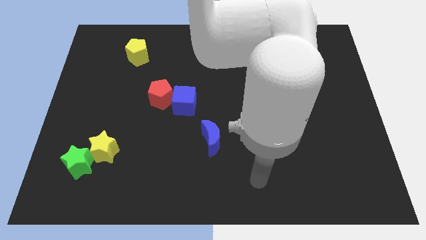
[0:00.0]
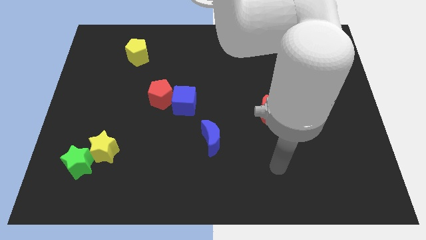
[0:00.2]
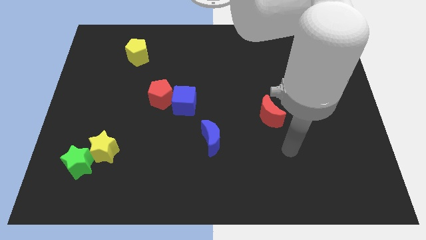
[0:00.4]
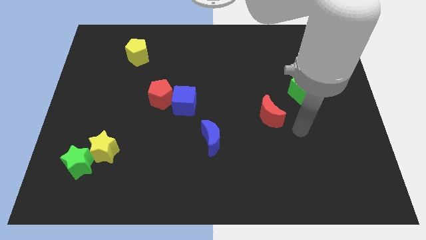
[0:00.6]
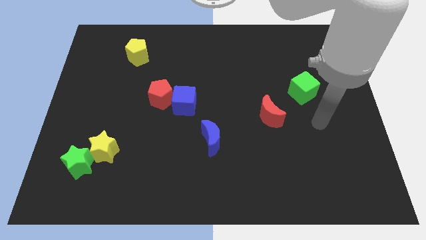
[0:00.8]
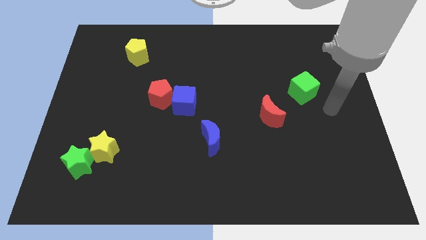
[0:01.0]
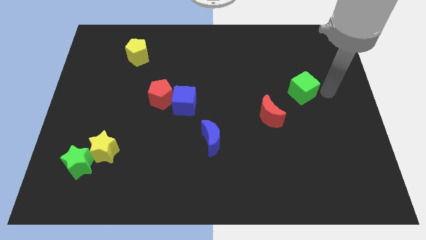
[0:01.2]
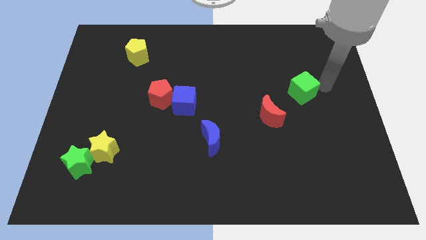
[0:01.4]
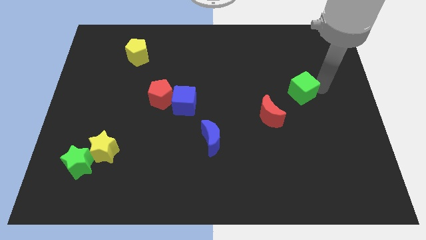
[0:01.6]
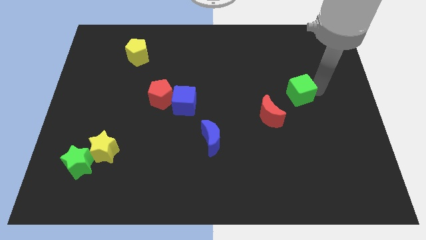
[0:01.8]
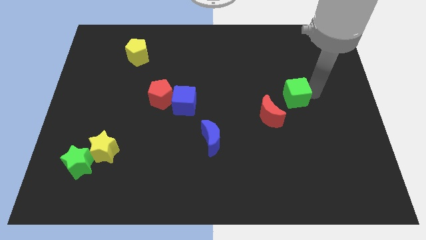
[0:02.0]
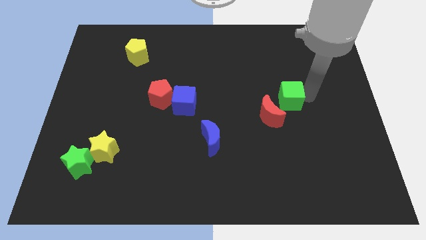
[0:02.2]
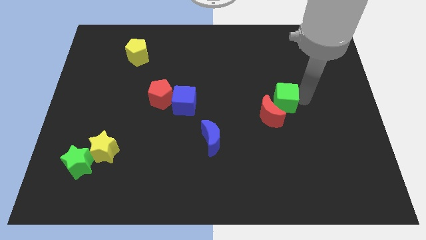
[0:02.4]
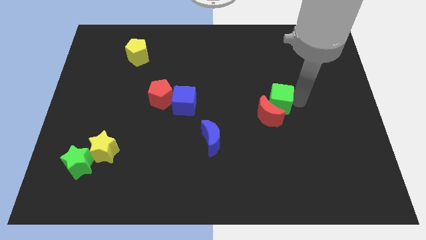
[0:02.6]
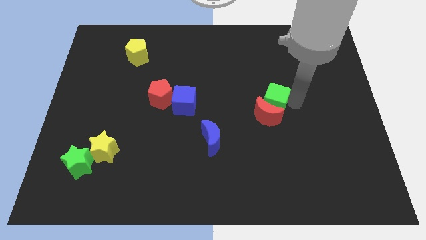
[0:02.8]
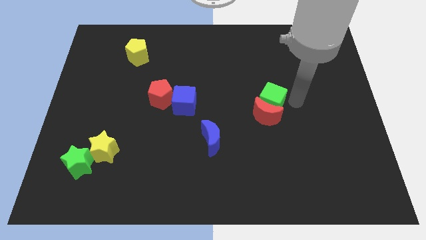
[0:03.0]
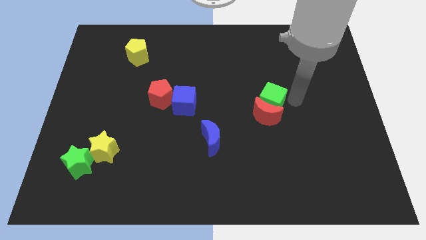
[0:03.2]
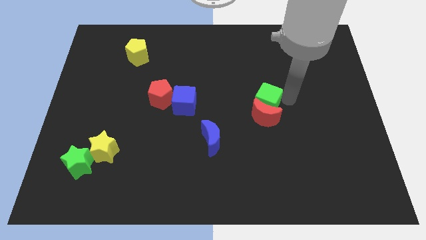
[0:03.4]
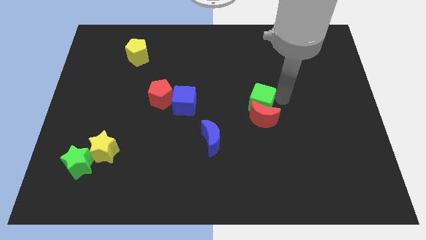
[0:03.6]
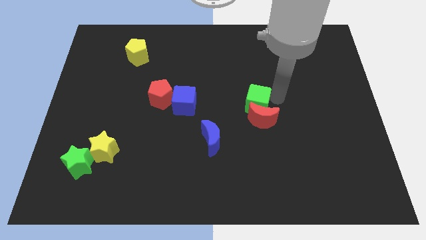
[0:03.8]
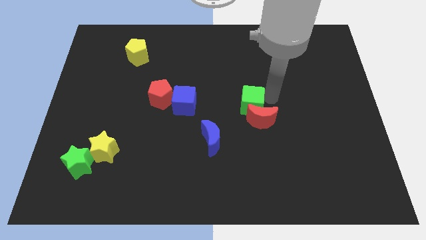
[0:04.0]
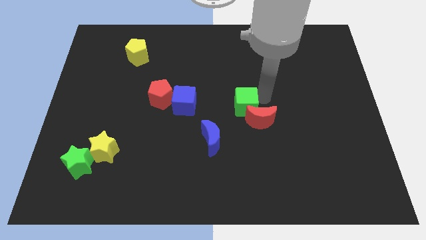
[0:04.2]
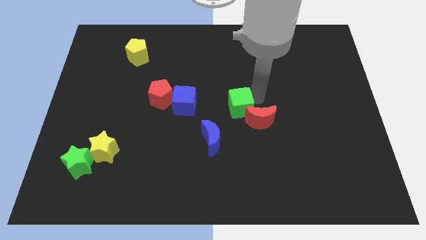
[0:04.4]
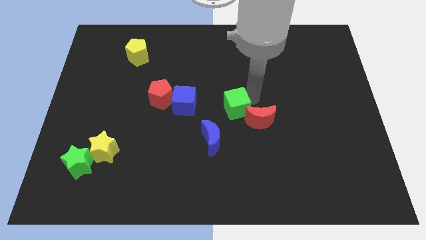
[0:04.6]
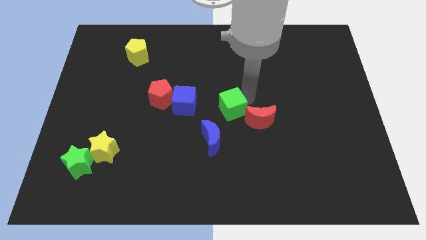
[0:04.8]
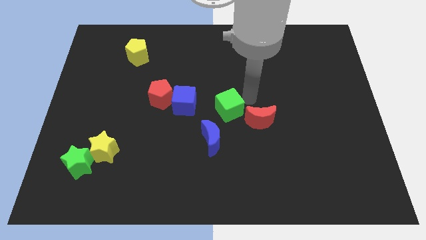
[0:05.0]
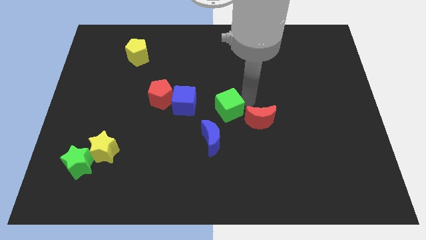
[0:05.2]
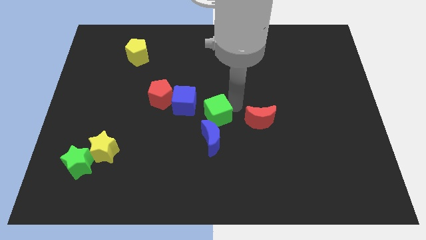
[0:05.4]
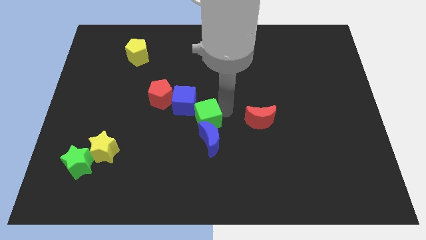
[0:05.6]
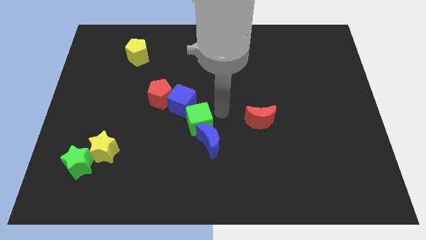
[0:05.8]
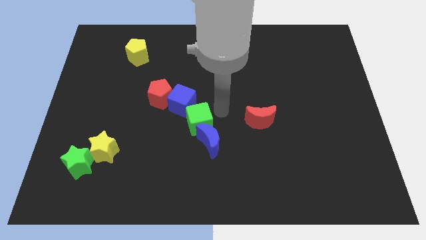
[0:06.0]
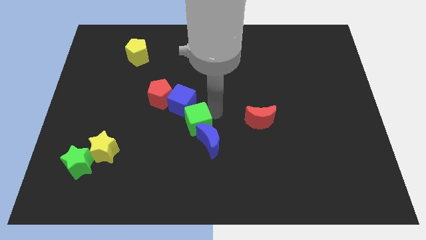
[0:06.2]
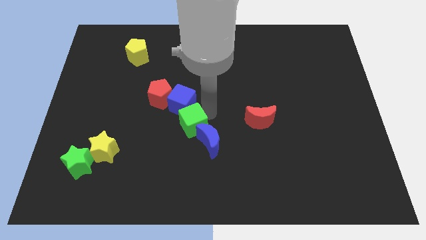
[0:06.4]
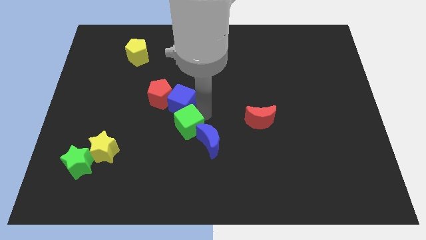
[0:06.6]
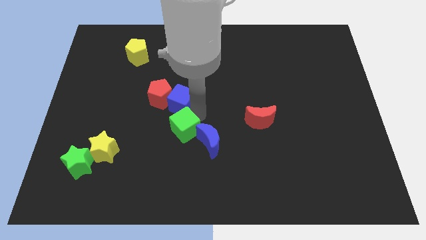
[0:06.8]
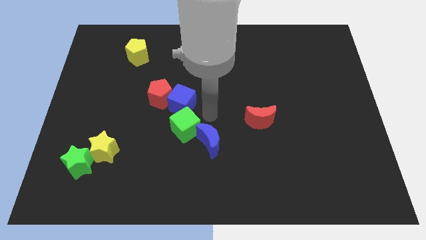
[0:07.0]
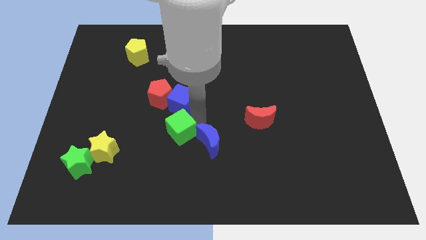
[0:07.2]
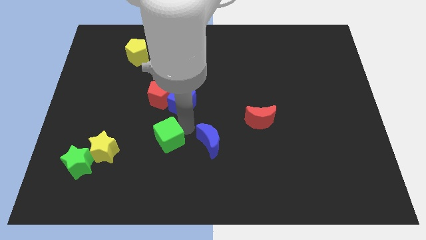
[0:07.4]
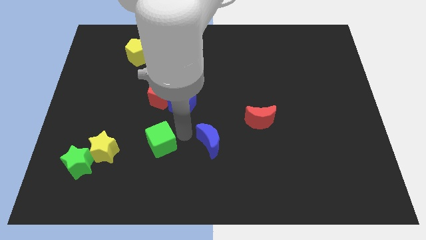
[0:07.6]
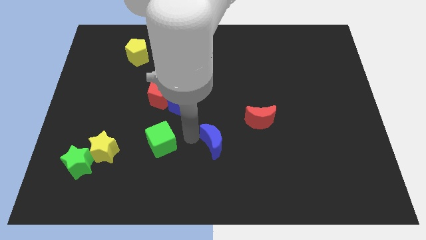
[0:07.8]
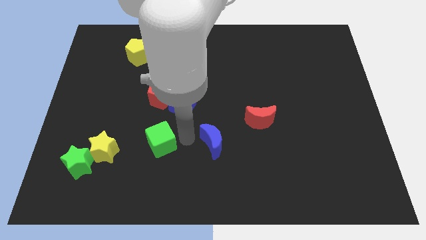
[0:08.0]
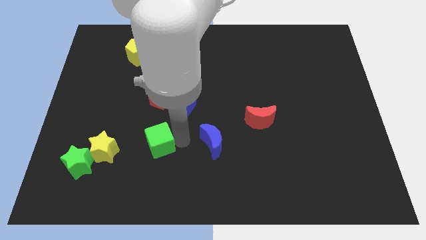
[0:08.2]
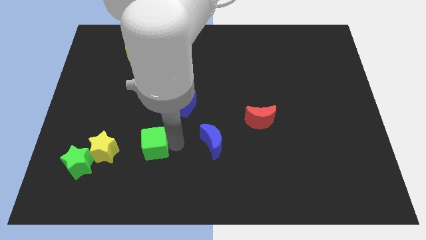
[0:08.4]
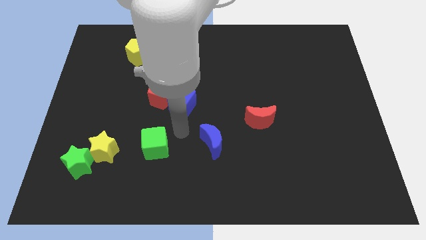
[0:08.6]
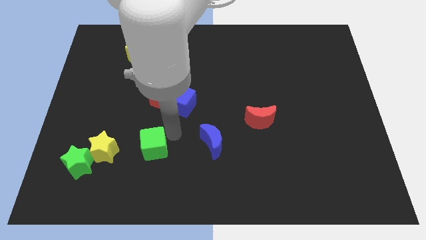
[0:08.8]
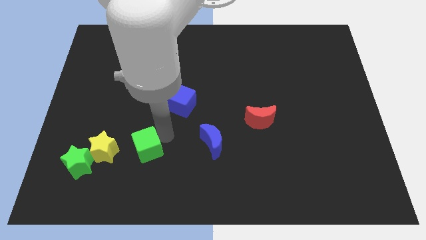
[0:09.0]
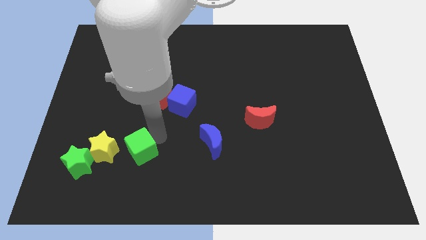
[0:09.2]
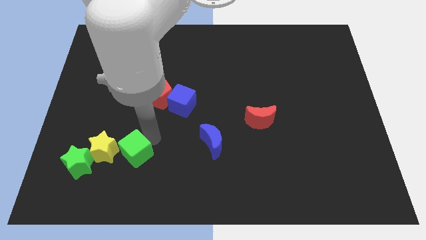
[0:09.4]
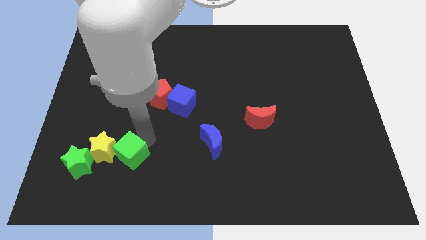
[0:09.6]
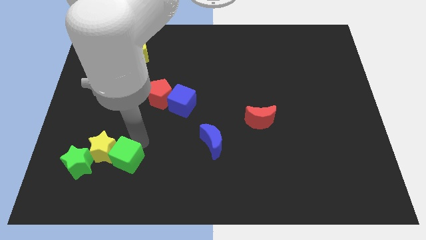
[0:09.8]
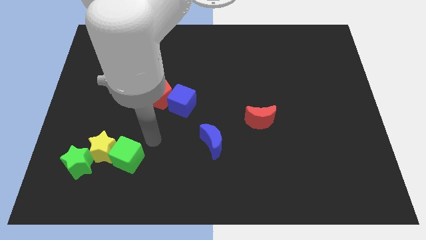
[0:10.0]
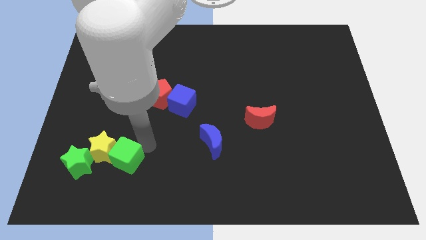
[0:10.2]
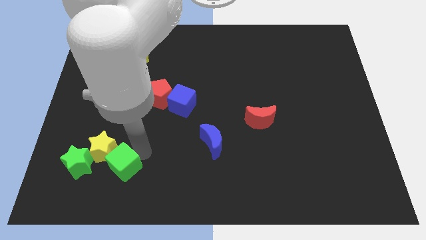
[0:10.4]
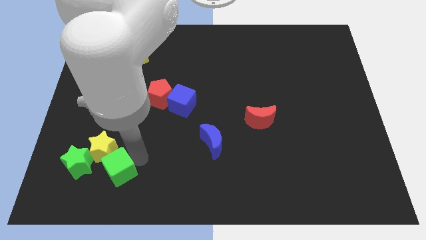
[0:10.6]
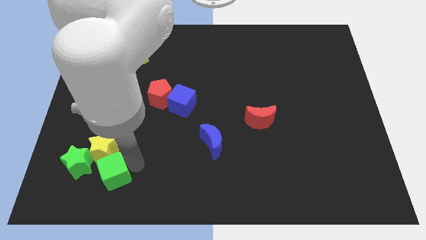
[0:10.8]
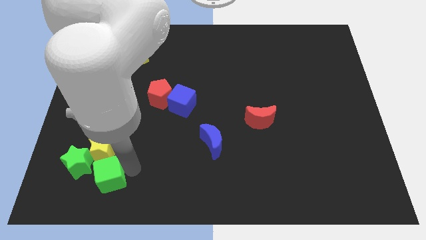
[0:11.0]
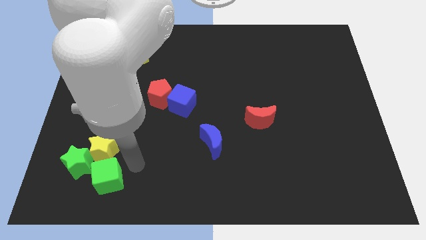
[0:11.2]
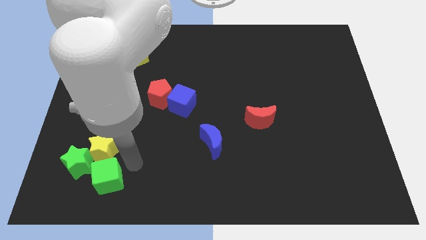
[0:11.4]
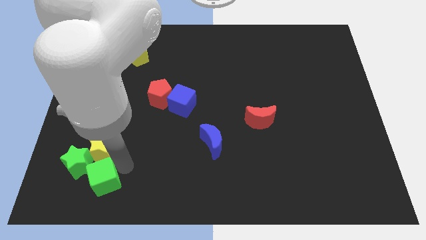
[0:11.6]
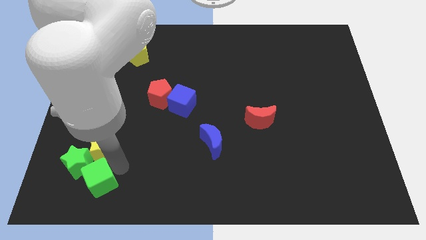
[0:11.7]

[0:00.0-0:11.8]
put the green cube to the bottom left side of the yellow star

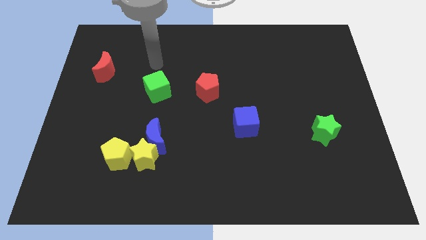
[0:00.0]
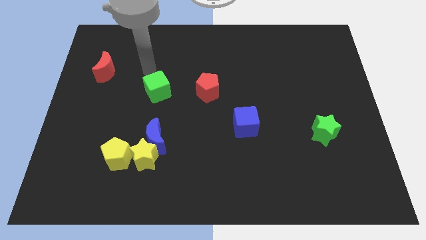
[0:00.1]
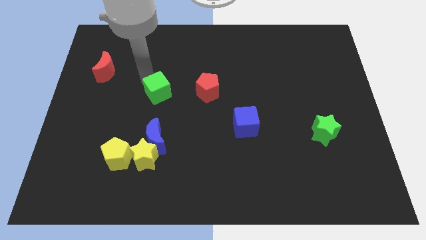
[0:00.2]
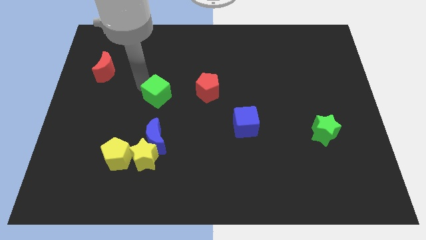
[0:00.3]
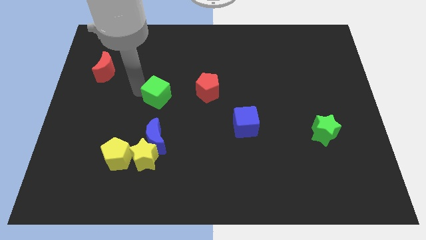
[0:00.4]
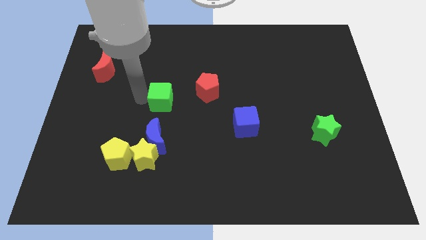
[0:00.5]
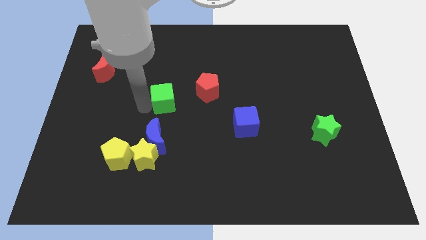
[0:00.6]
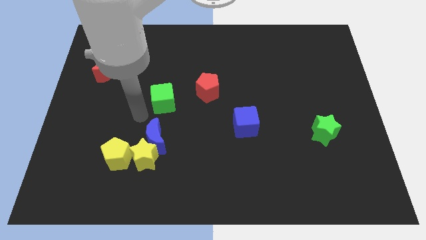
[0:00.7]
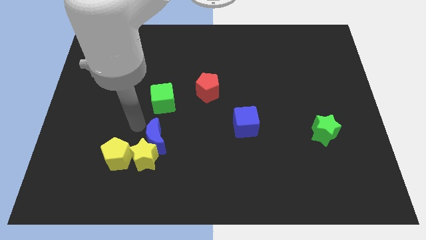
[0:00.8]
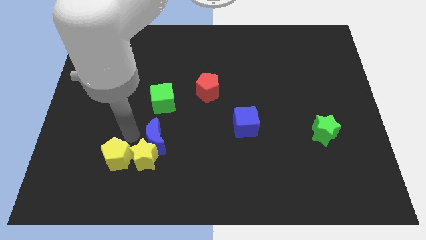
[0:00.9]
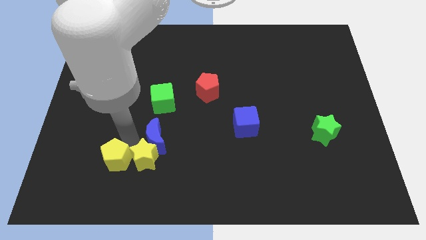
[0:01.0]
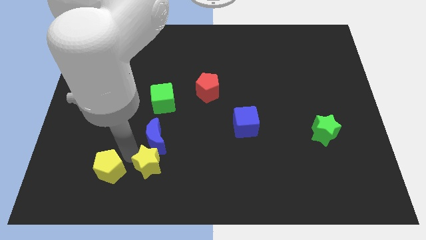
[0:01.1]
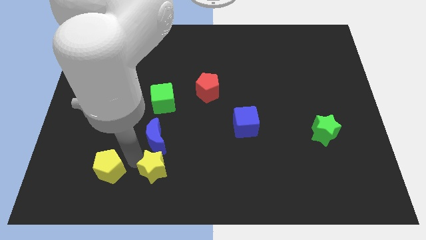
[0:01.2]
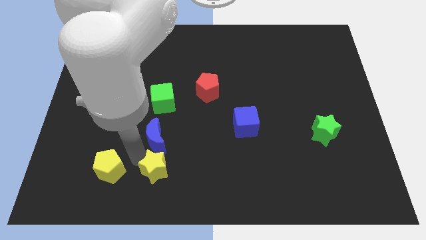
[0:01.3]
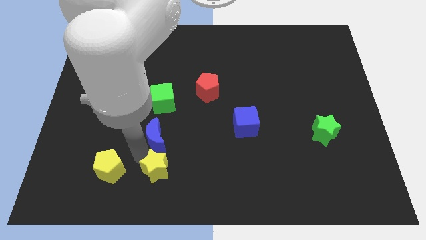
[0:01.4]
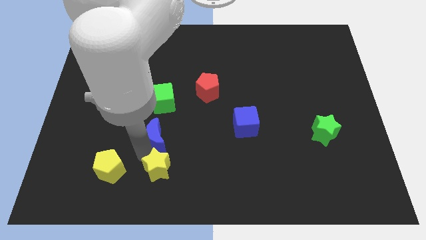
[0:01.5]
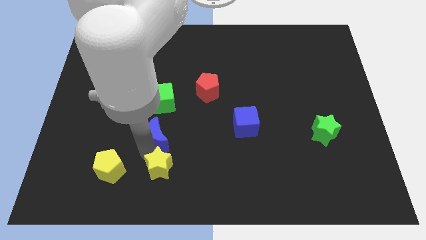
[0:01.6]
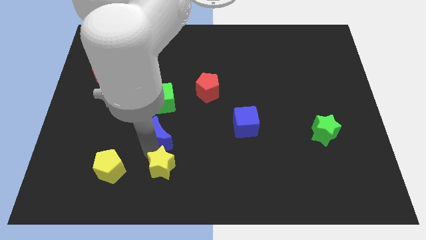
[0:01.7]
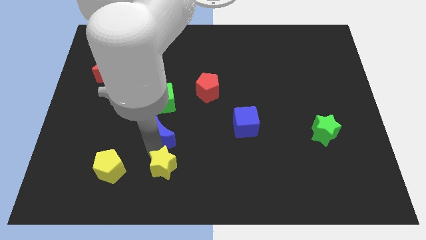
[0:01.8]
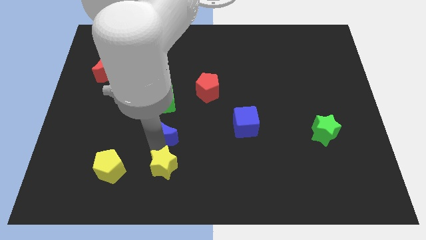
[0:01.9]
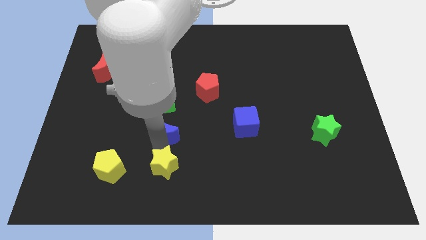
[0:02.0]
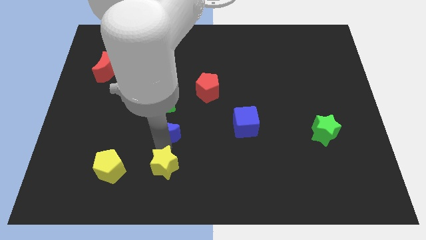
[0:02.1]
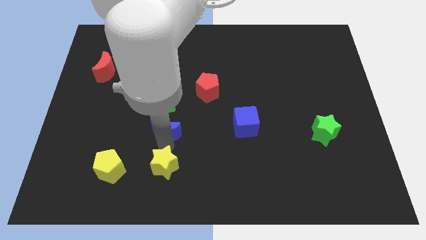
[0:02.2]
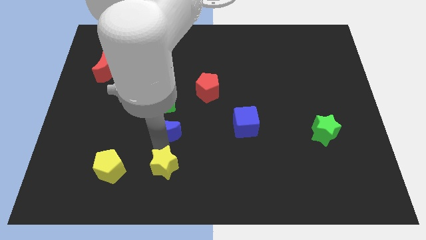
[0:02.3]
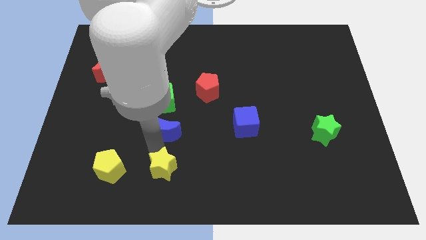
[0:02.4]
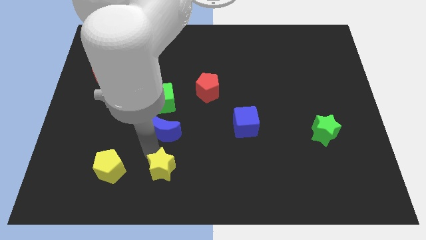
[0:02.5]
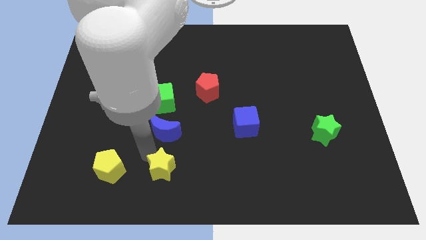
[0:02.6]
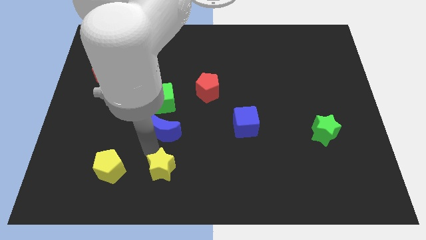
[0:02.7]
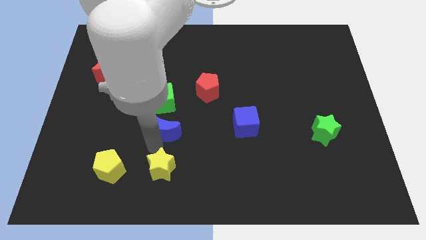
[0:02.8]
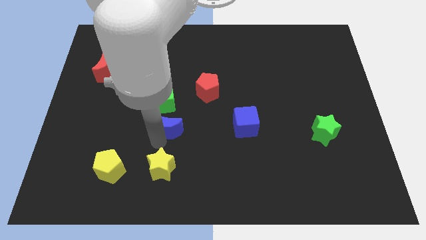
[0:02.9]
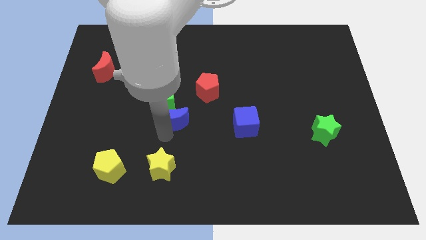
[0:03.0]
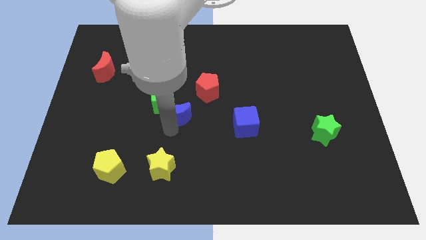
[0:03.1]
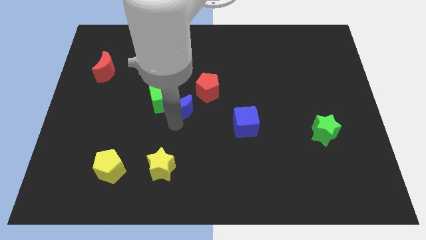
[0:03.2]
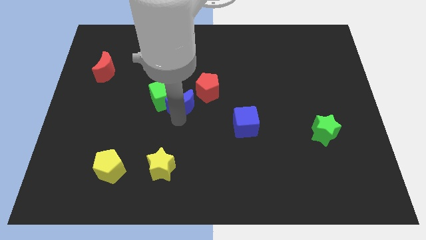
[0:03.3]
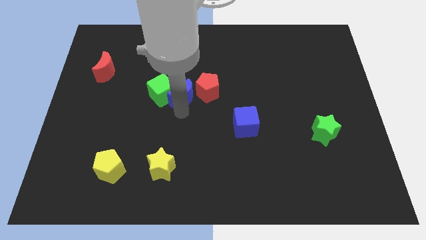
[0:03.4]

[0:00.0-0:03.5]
move the blue moon to the top right side of the green cube
